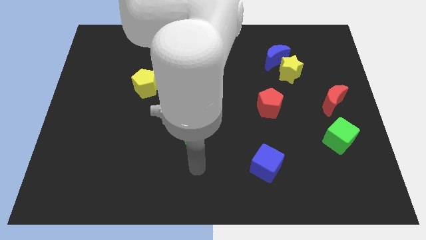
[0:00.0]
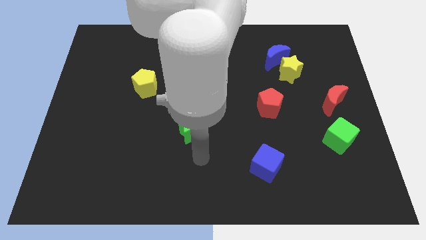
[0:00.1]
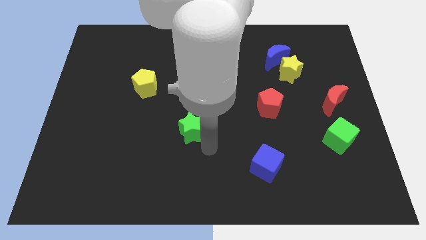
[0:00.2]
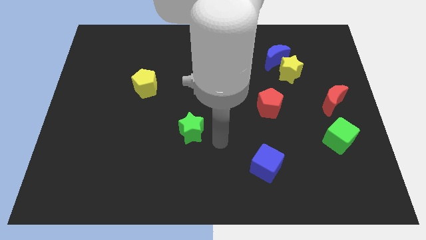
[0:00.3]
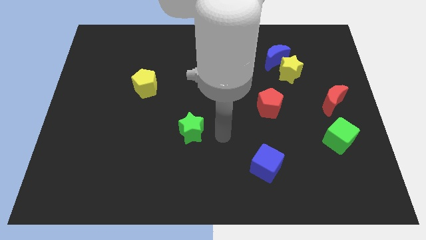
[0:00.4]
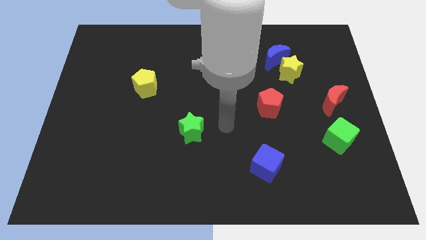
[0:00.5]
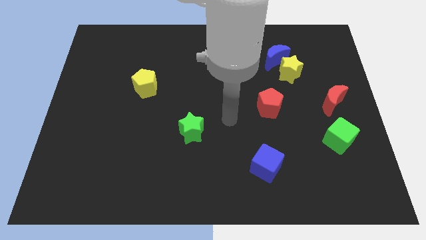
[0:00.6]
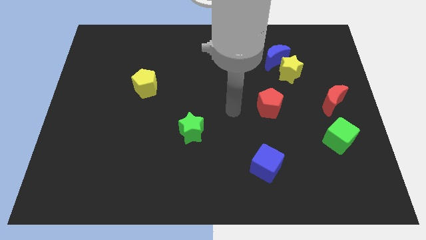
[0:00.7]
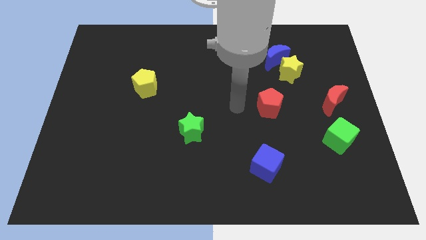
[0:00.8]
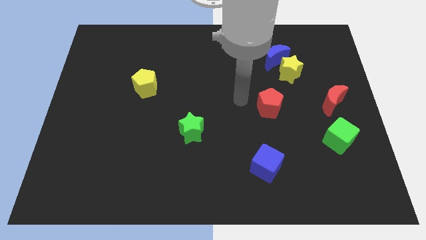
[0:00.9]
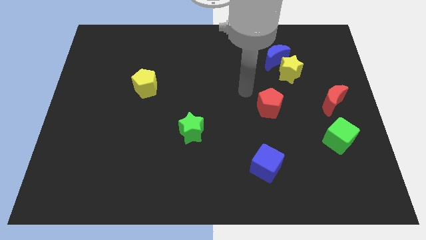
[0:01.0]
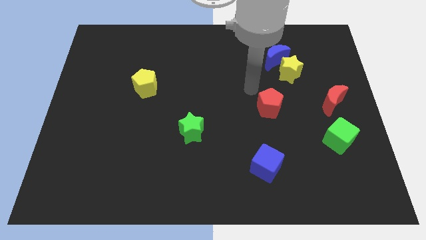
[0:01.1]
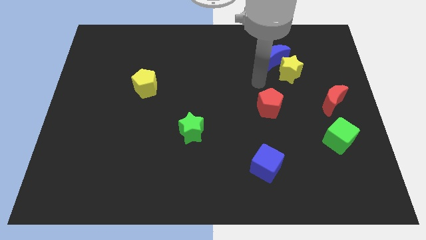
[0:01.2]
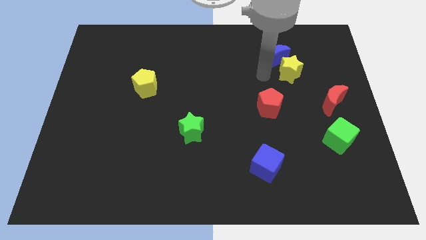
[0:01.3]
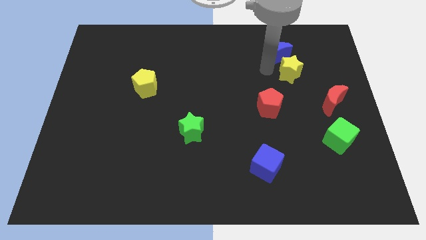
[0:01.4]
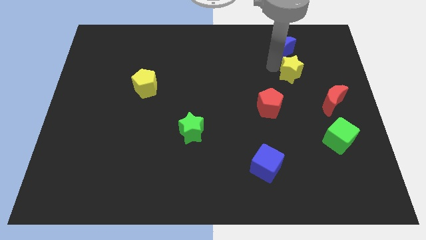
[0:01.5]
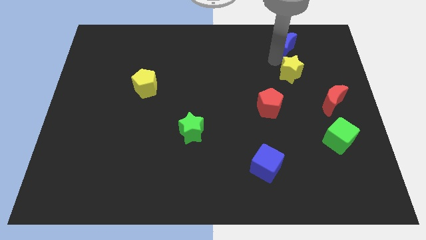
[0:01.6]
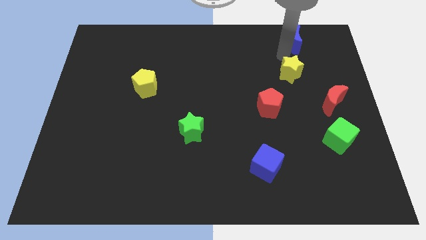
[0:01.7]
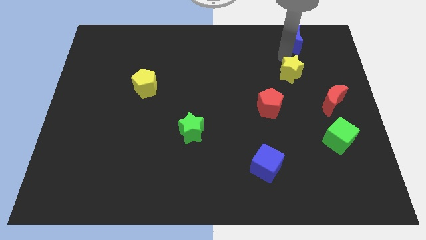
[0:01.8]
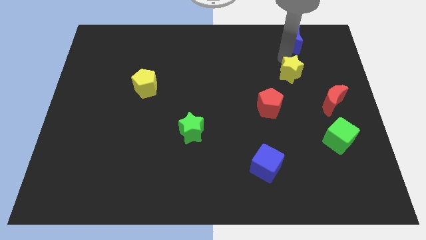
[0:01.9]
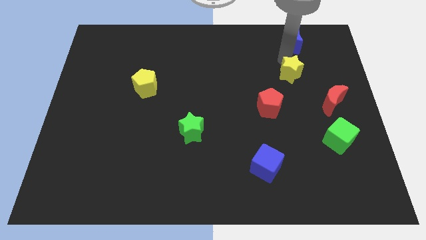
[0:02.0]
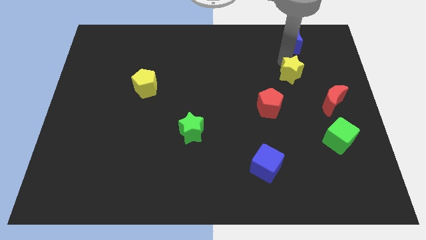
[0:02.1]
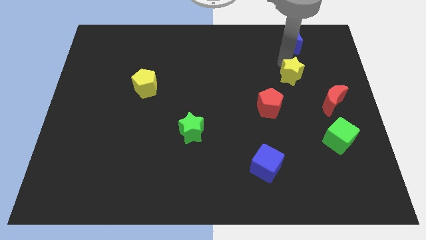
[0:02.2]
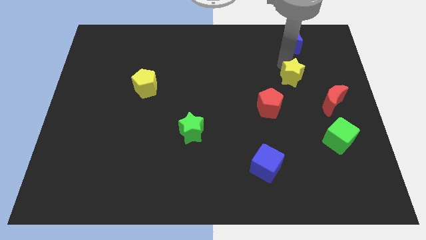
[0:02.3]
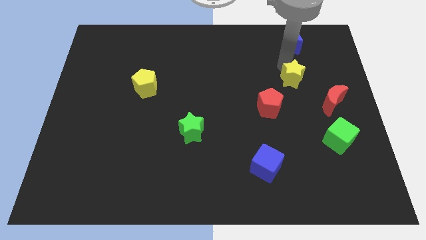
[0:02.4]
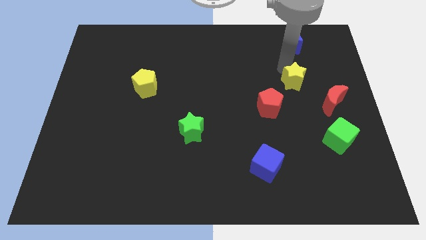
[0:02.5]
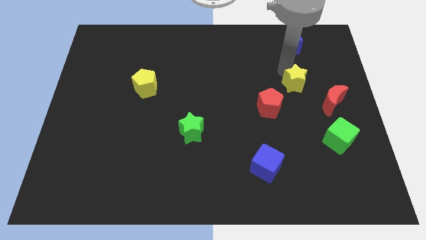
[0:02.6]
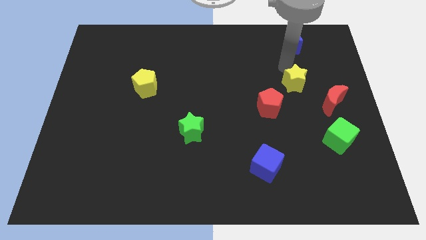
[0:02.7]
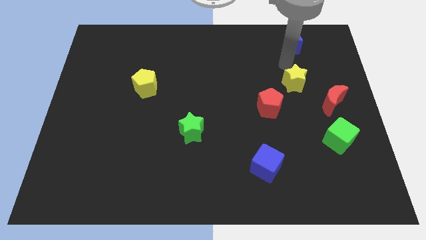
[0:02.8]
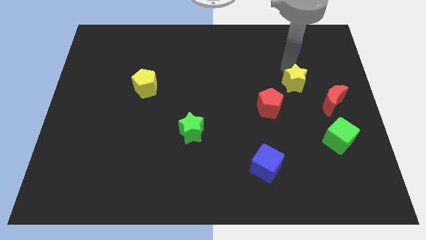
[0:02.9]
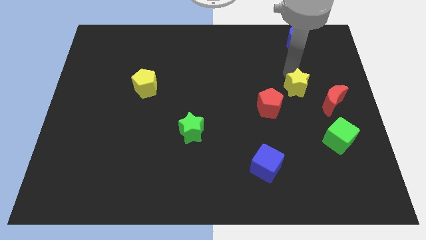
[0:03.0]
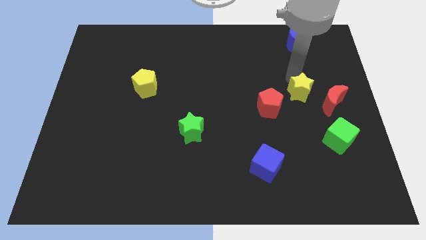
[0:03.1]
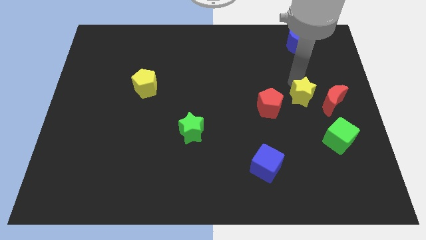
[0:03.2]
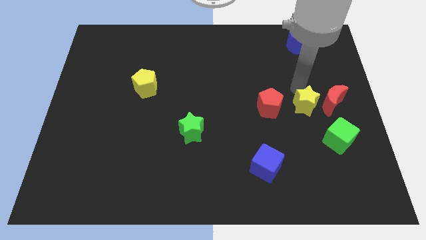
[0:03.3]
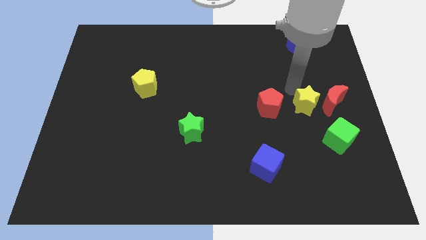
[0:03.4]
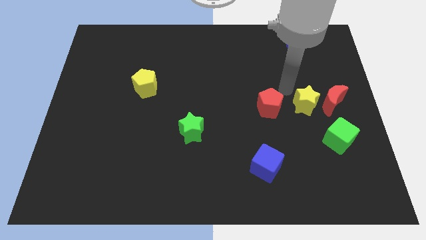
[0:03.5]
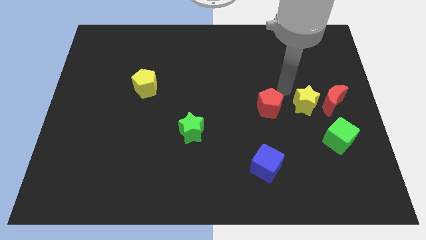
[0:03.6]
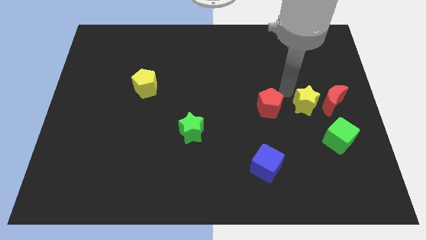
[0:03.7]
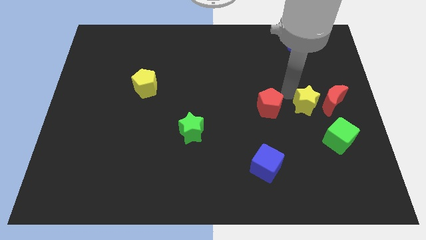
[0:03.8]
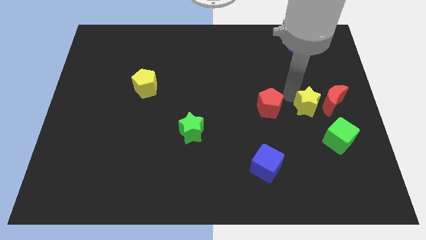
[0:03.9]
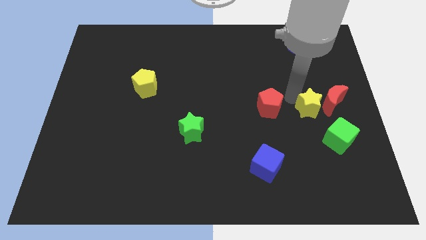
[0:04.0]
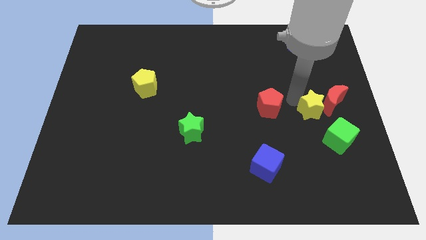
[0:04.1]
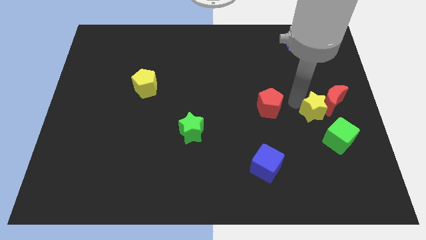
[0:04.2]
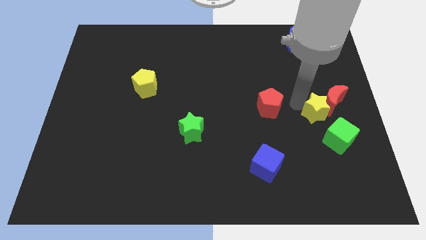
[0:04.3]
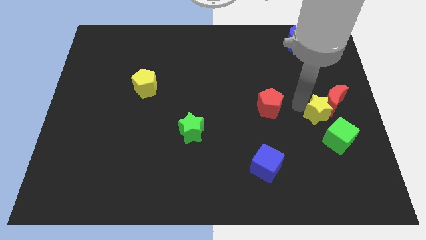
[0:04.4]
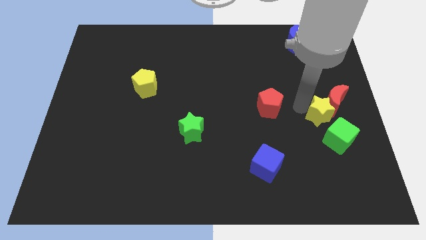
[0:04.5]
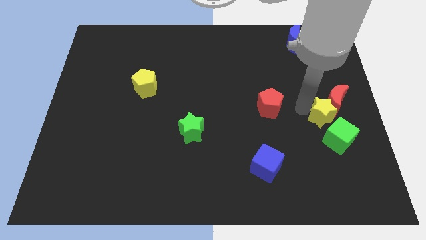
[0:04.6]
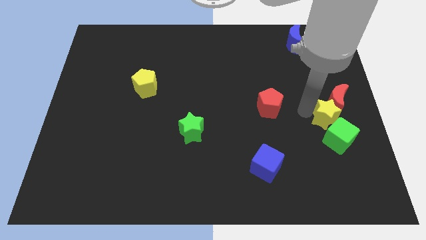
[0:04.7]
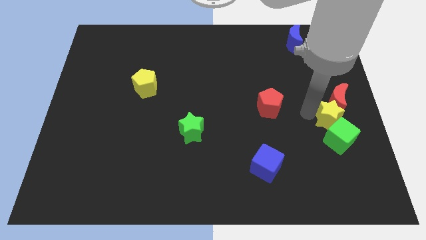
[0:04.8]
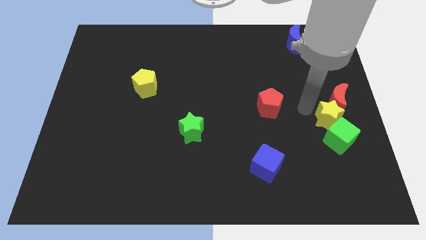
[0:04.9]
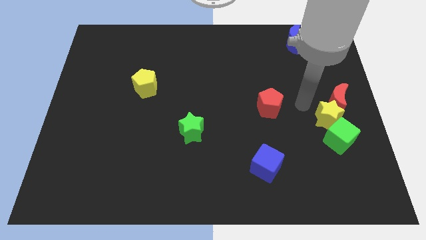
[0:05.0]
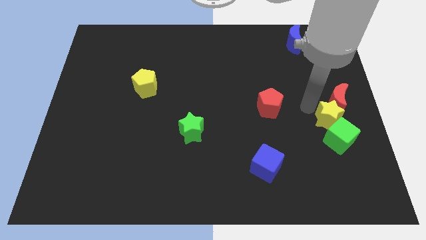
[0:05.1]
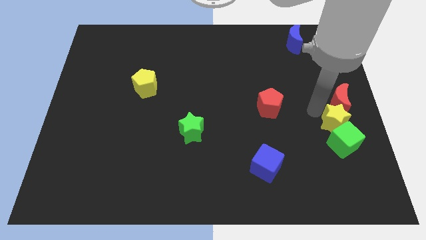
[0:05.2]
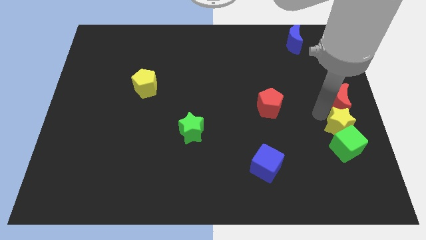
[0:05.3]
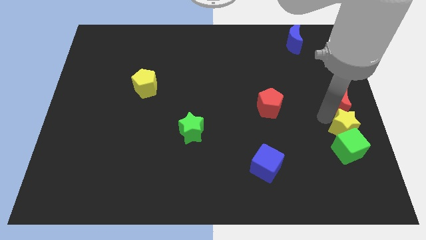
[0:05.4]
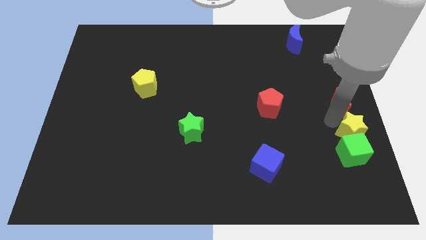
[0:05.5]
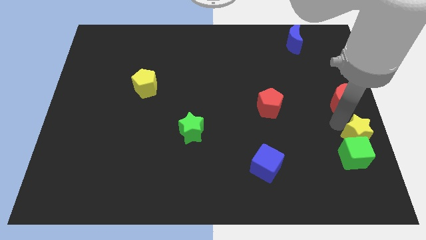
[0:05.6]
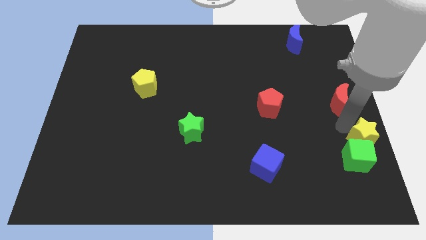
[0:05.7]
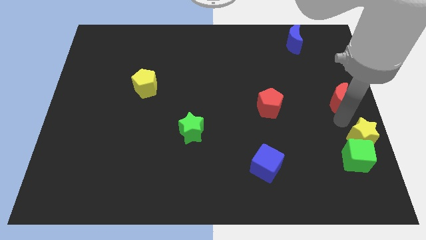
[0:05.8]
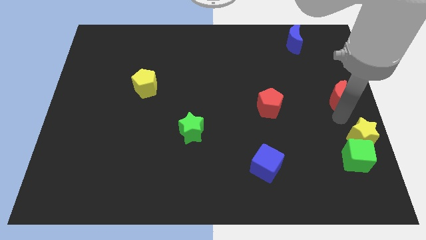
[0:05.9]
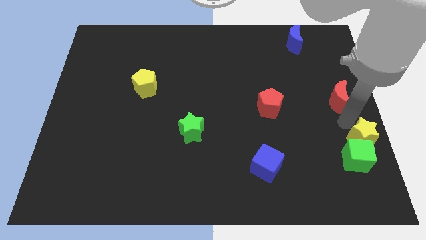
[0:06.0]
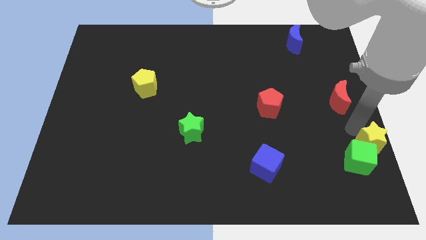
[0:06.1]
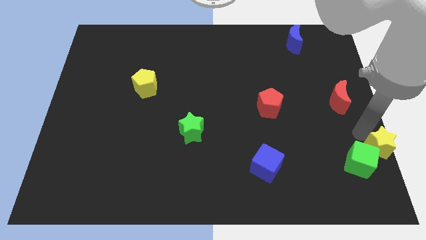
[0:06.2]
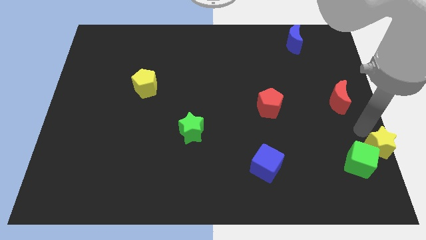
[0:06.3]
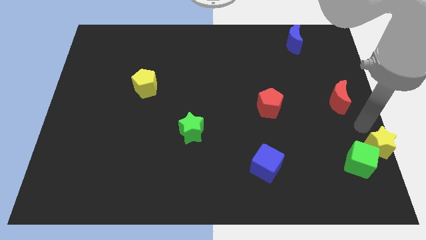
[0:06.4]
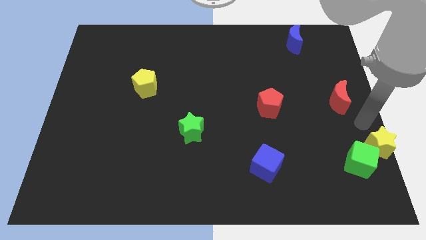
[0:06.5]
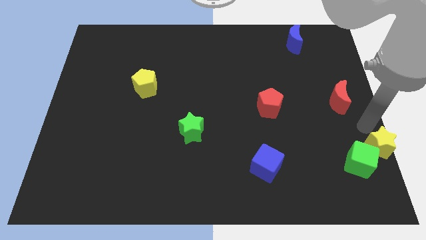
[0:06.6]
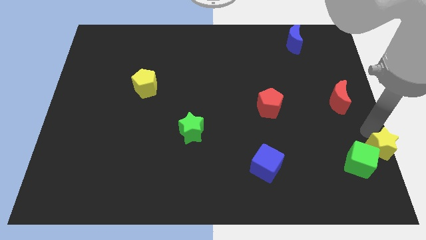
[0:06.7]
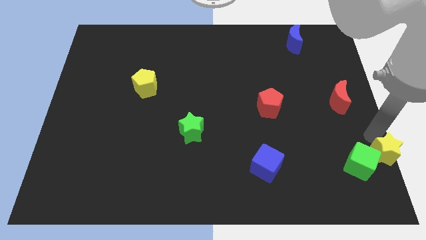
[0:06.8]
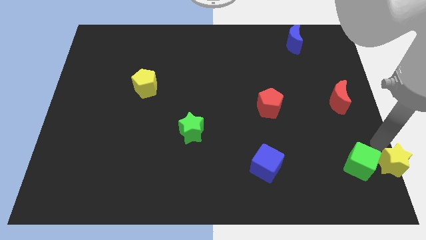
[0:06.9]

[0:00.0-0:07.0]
push the yellow star to the lower right corner
